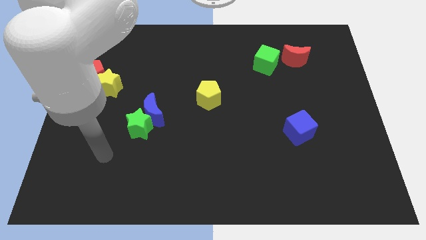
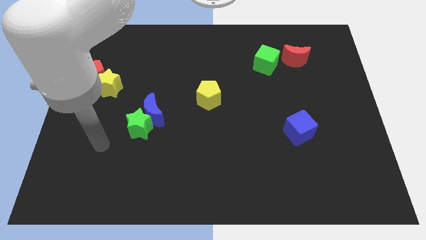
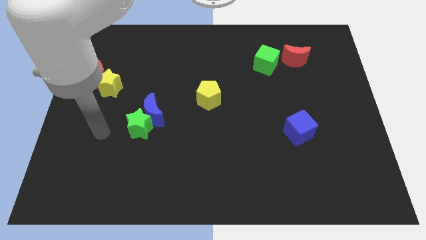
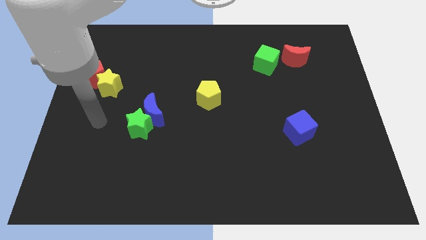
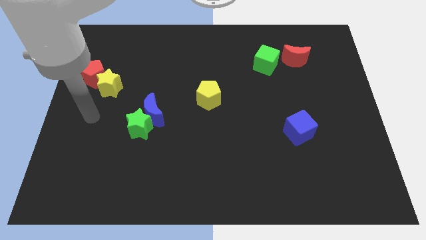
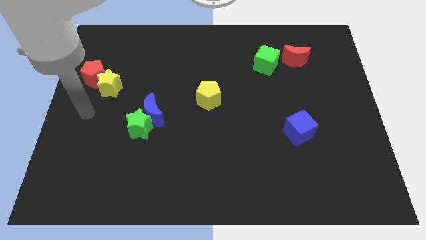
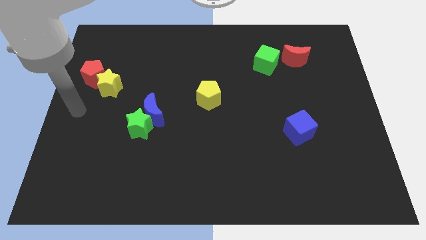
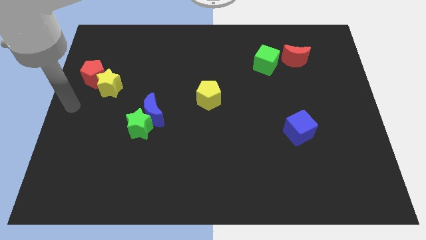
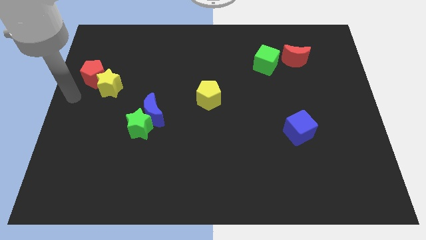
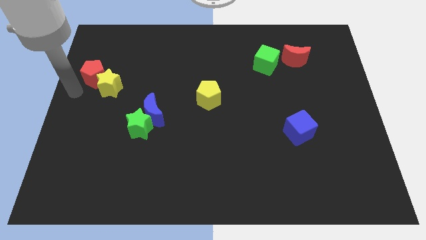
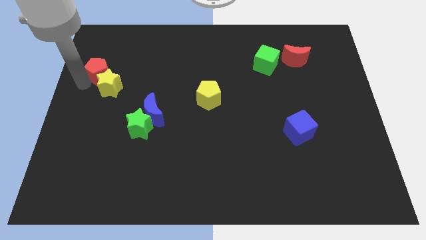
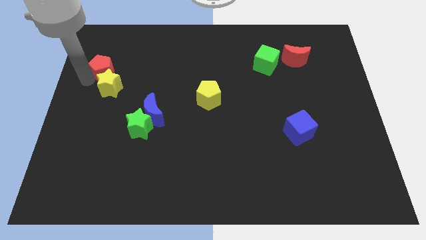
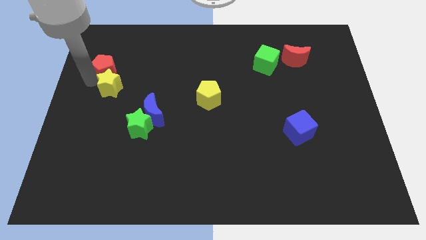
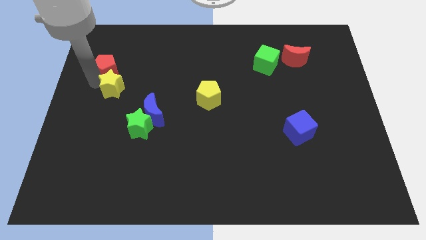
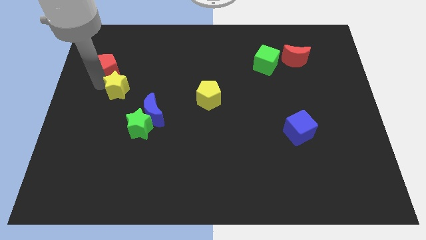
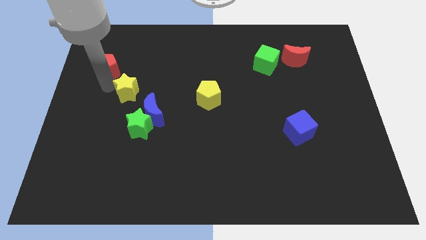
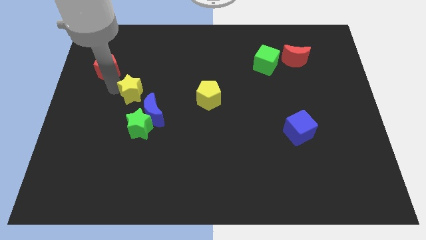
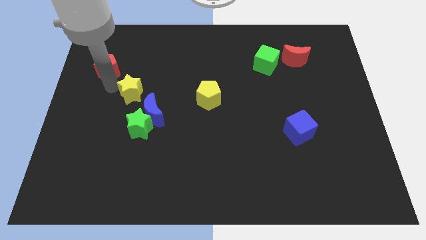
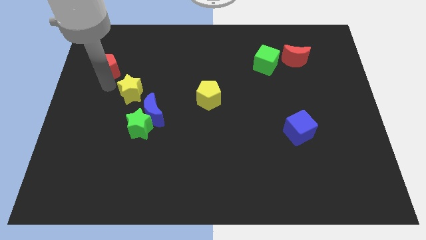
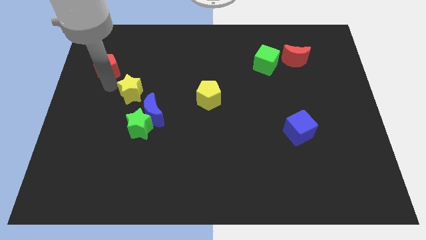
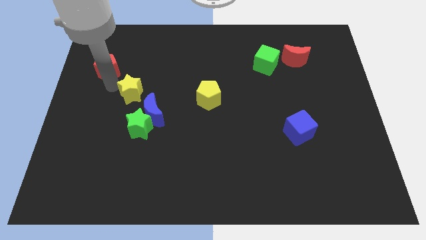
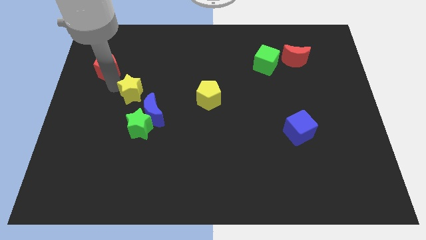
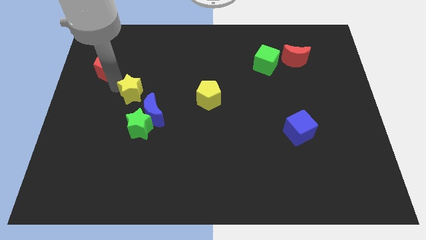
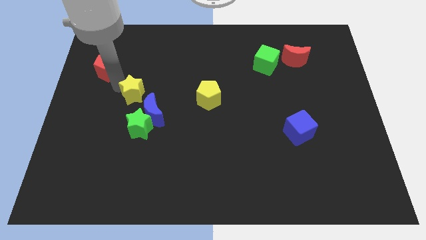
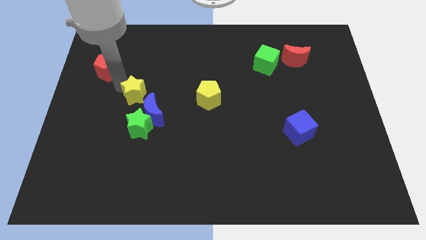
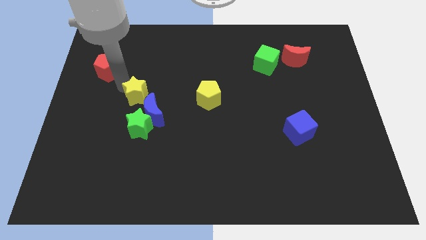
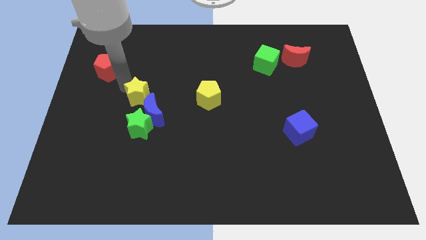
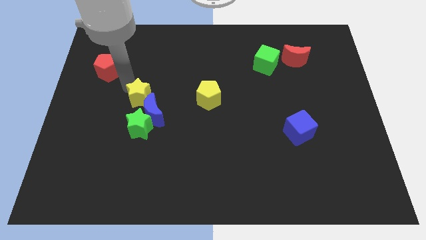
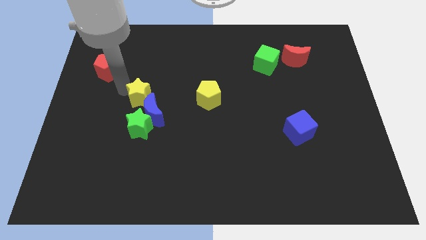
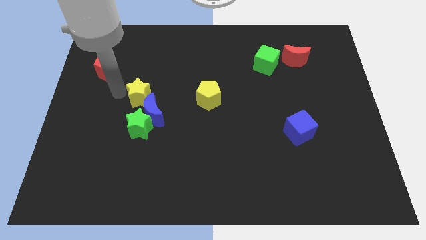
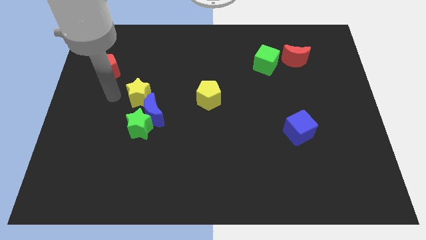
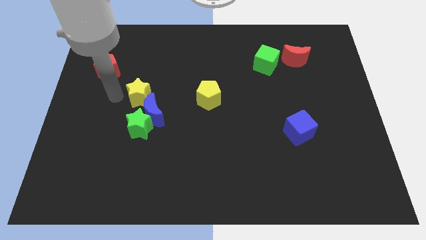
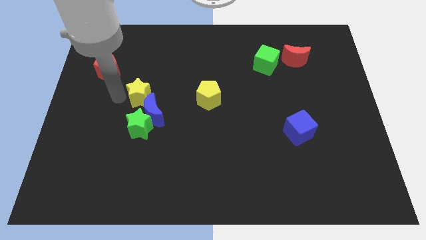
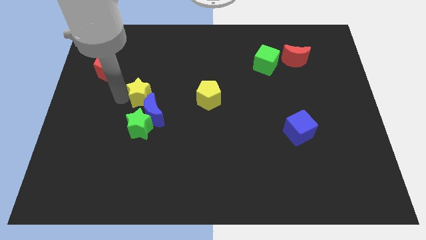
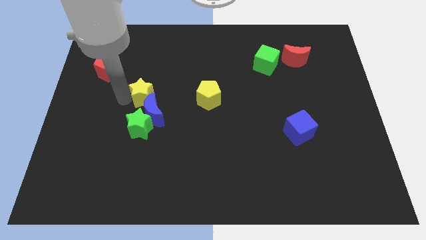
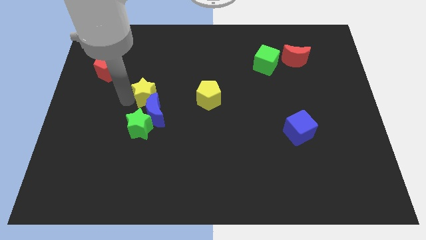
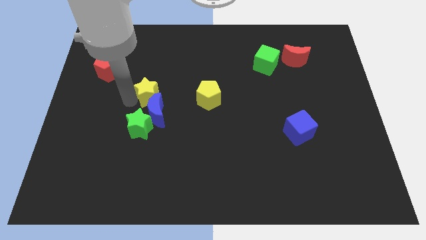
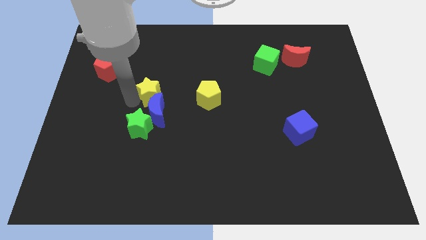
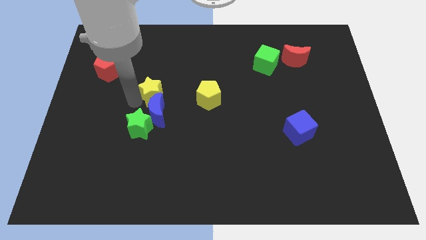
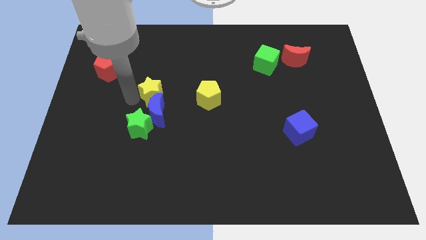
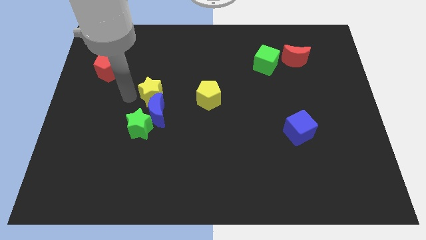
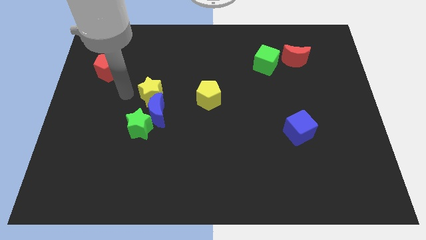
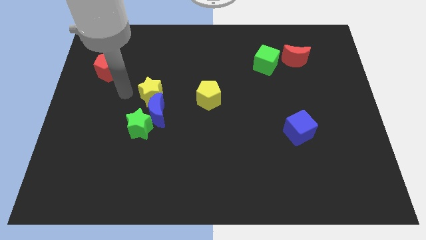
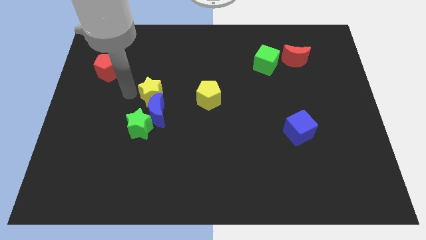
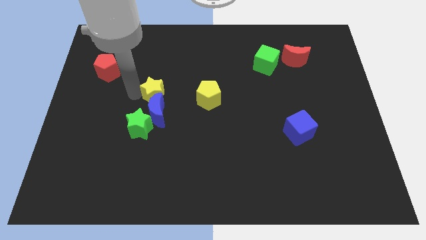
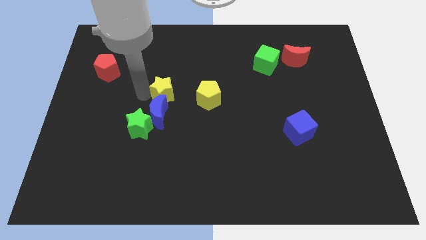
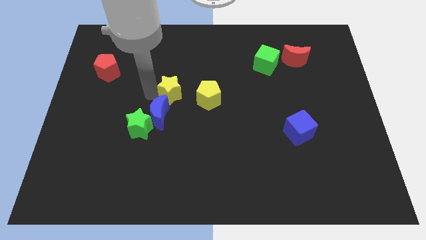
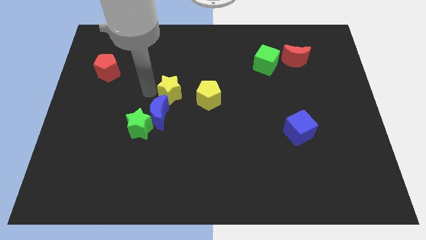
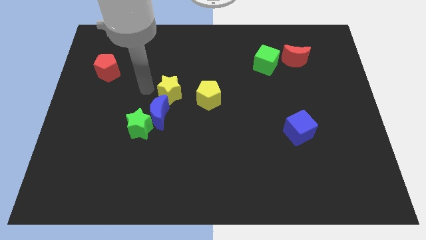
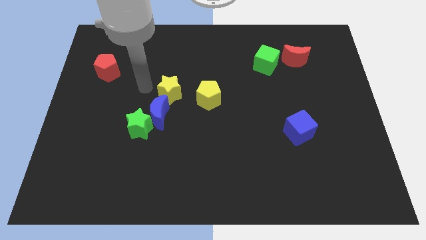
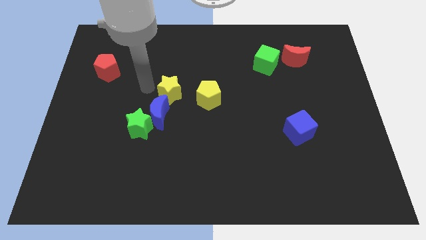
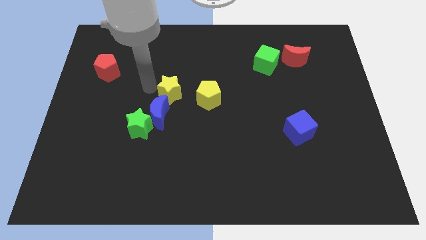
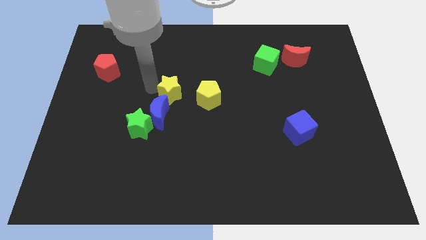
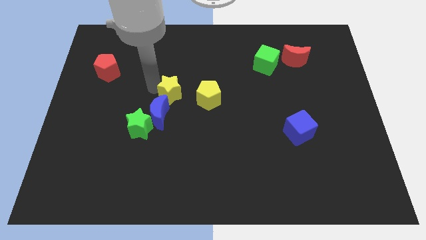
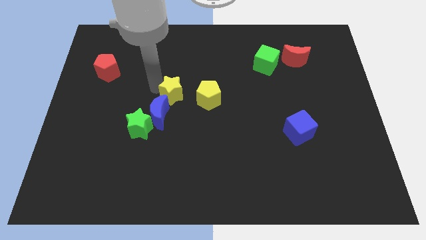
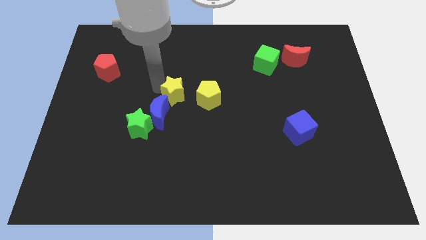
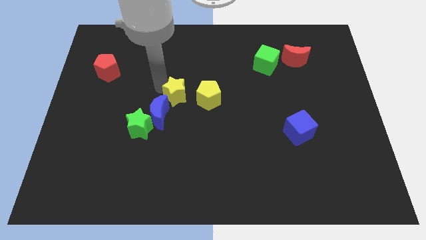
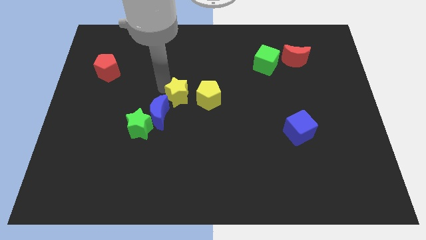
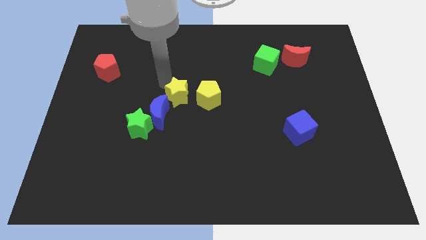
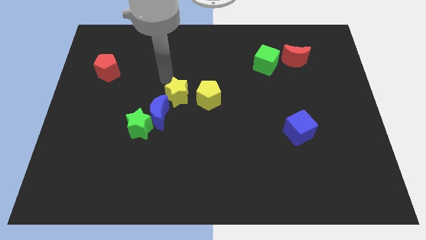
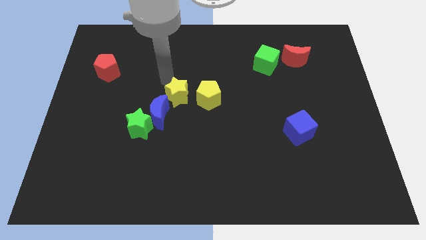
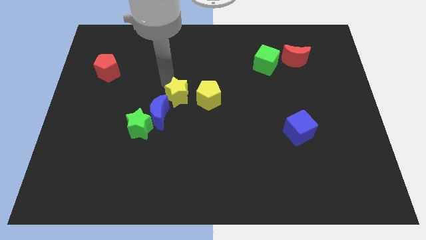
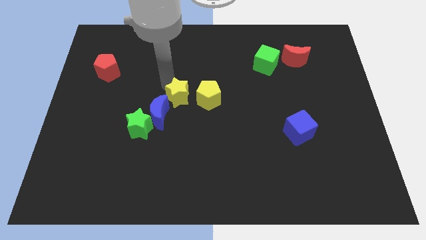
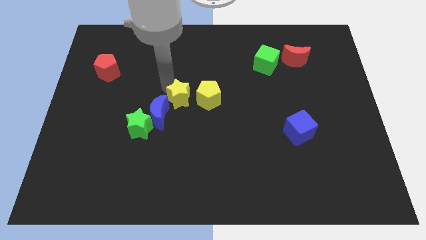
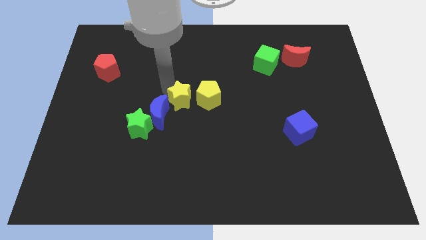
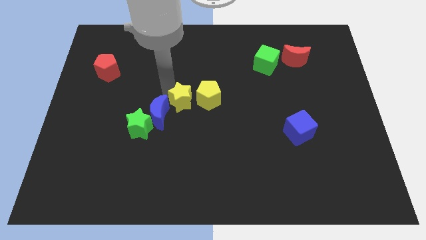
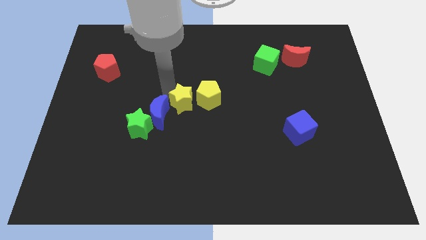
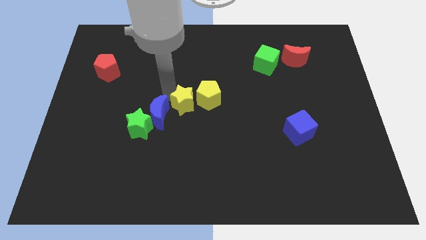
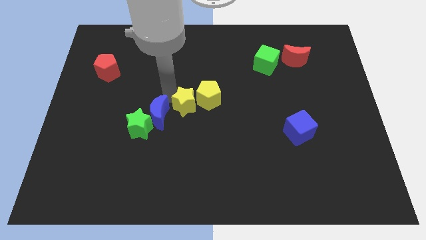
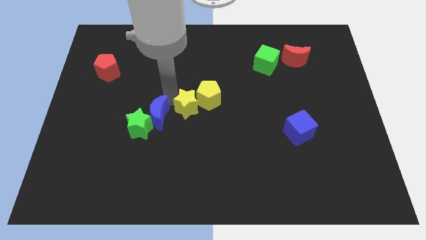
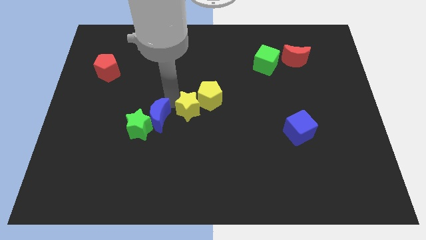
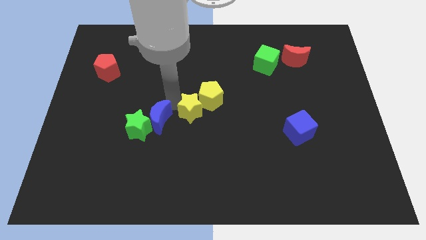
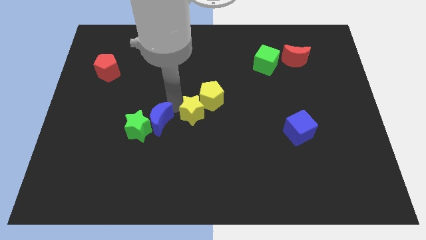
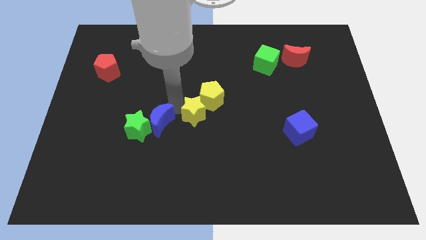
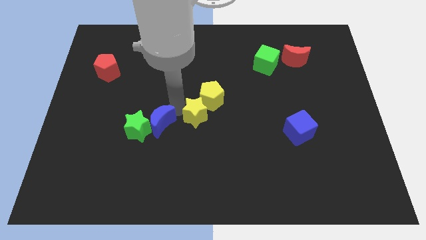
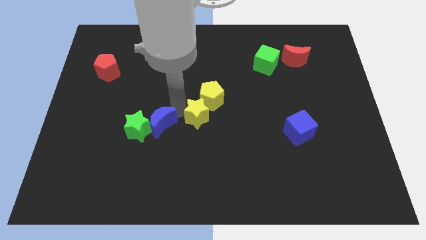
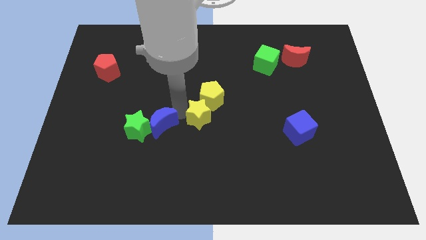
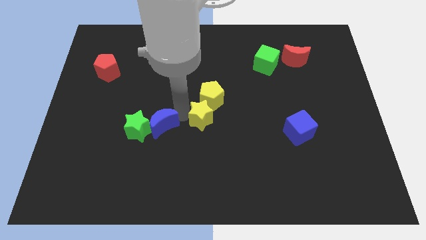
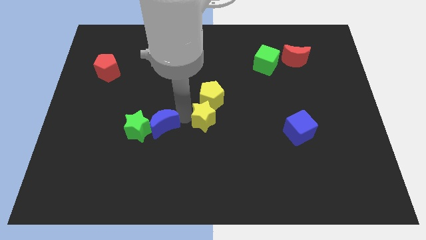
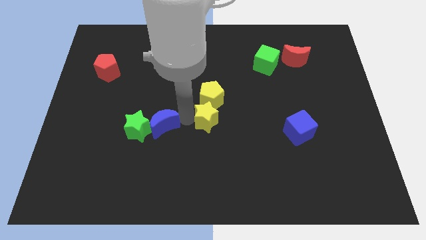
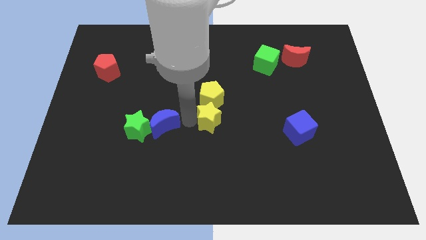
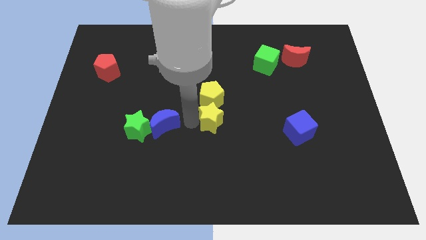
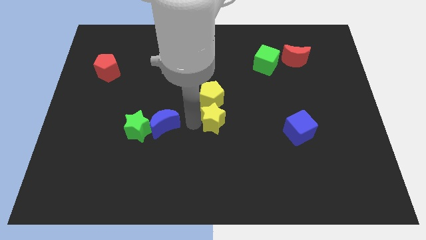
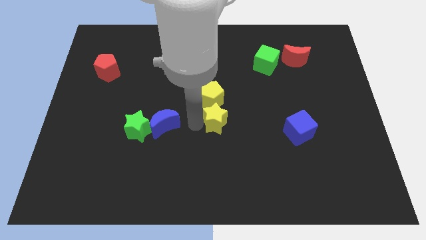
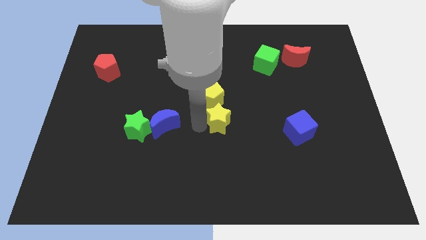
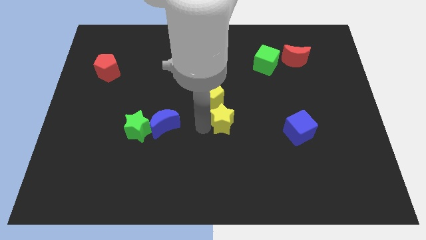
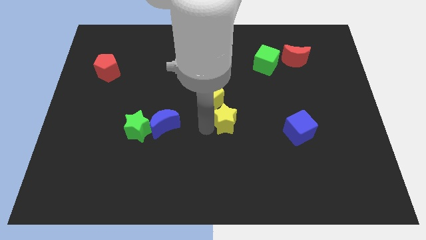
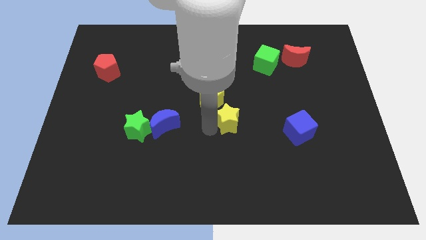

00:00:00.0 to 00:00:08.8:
put the yellow star to the left side of the blue cube
